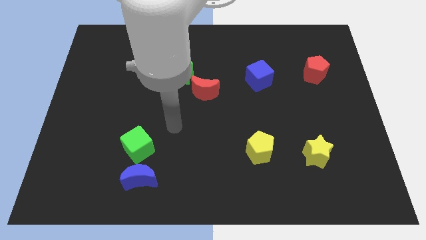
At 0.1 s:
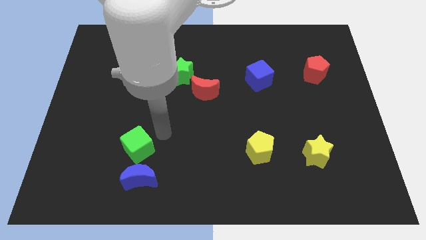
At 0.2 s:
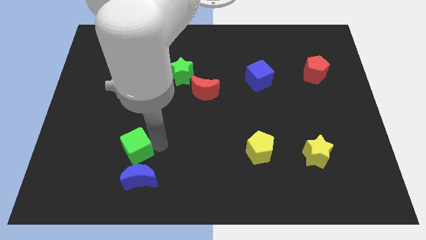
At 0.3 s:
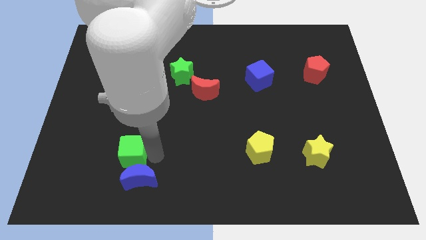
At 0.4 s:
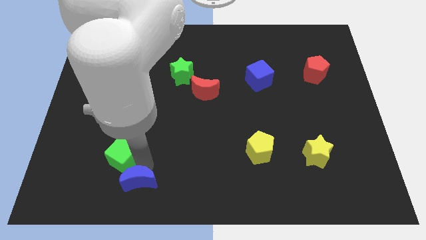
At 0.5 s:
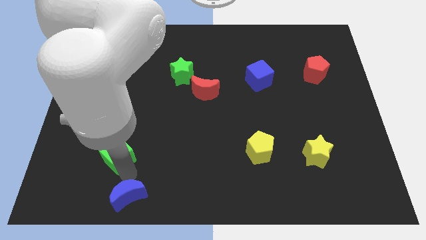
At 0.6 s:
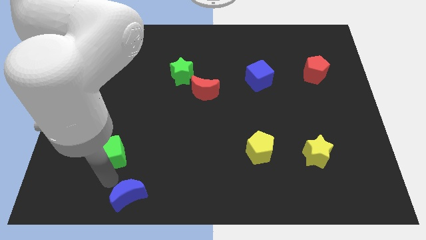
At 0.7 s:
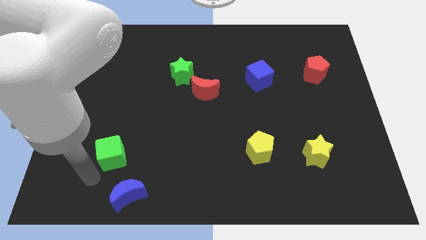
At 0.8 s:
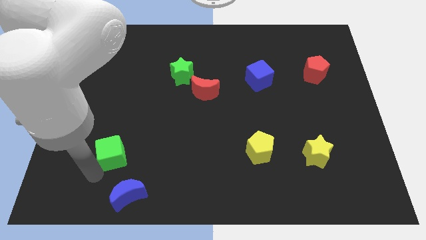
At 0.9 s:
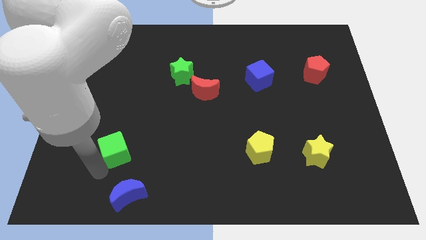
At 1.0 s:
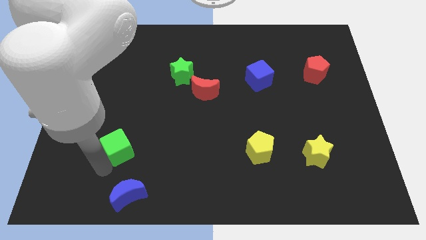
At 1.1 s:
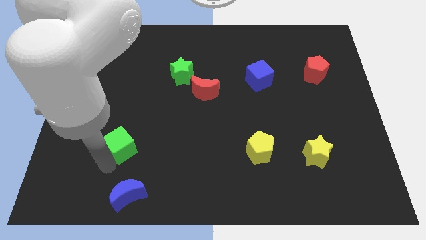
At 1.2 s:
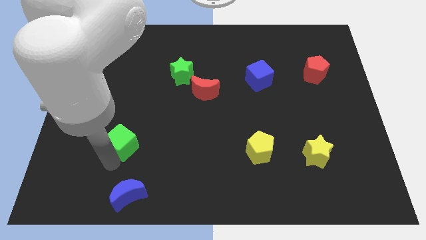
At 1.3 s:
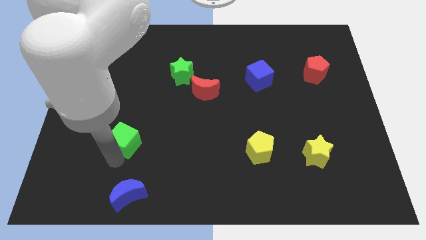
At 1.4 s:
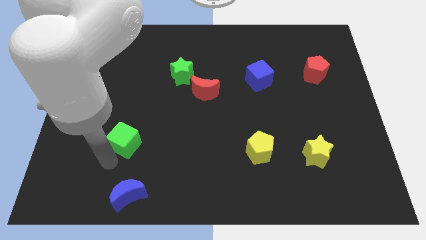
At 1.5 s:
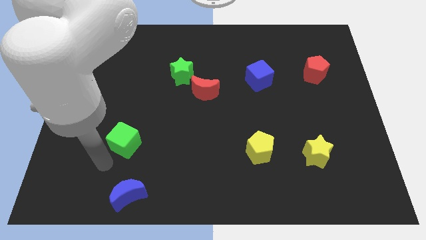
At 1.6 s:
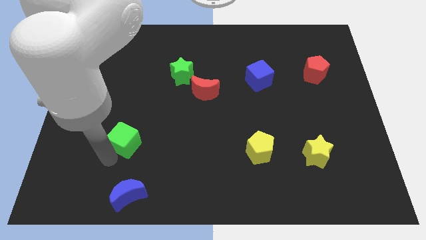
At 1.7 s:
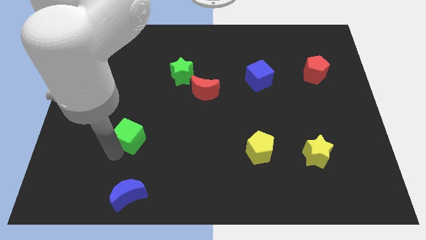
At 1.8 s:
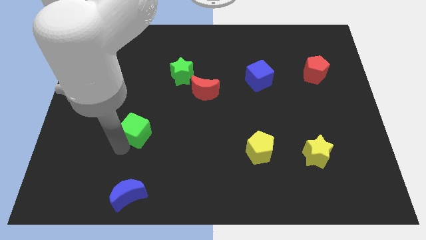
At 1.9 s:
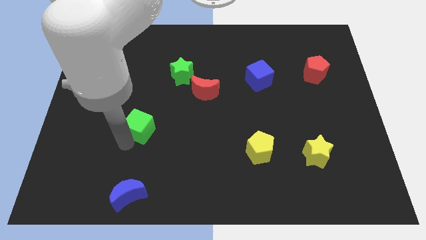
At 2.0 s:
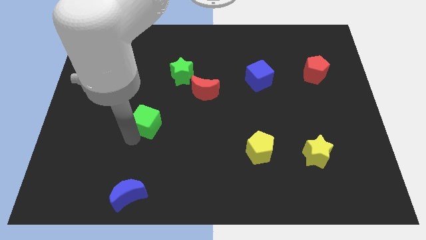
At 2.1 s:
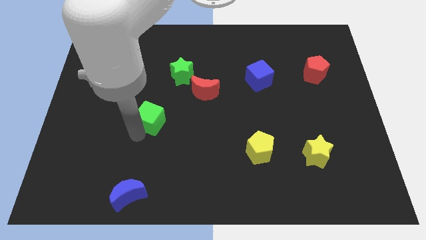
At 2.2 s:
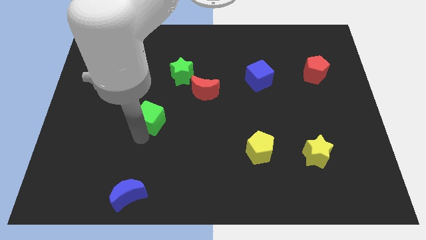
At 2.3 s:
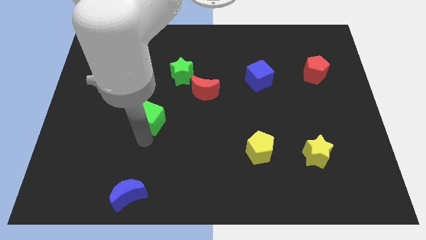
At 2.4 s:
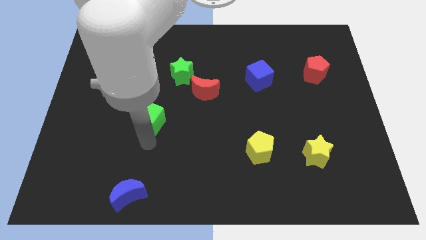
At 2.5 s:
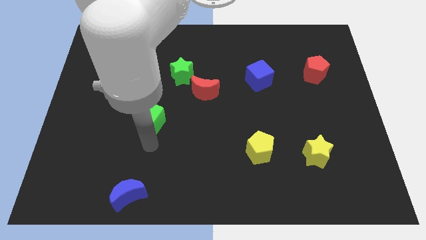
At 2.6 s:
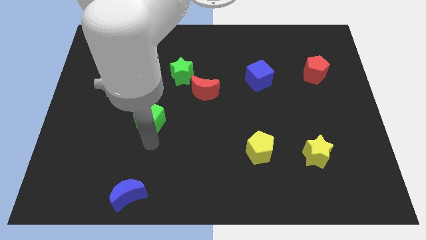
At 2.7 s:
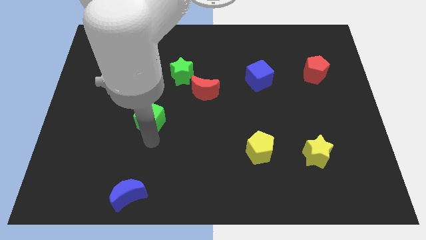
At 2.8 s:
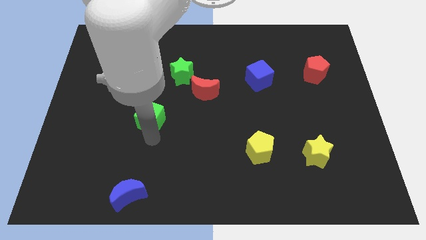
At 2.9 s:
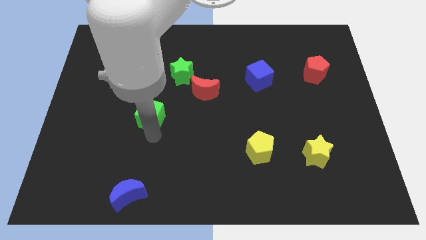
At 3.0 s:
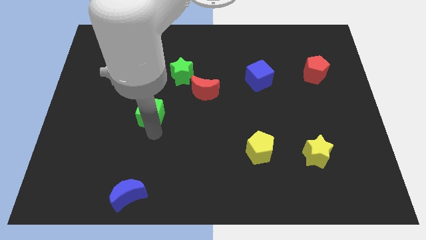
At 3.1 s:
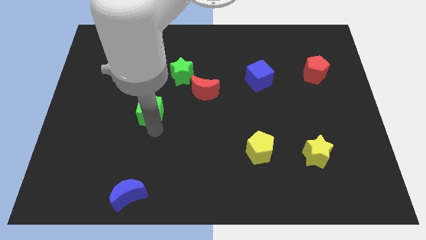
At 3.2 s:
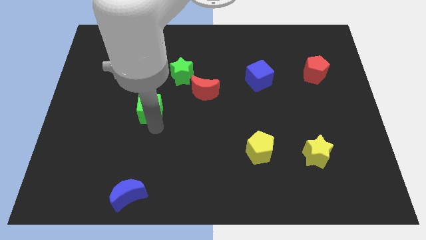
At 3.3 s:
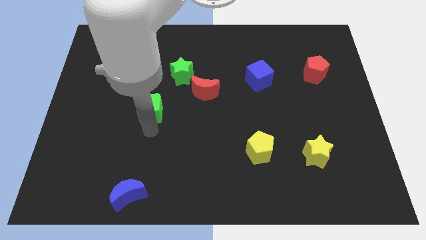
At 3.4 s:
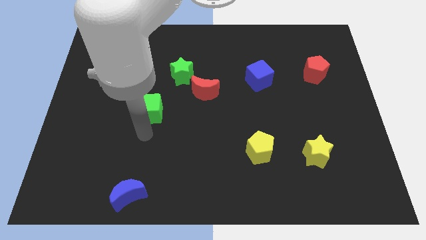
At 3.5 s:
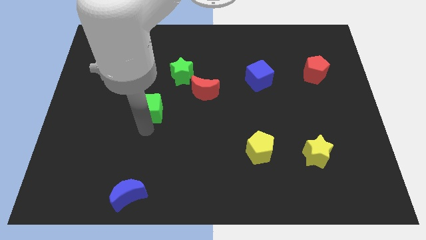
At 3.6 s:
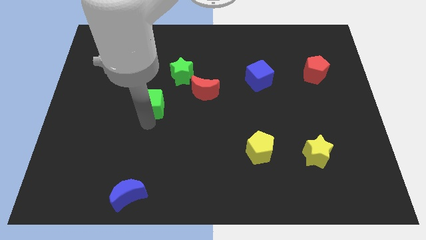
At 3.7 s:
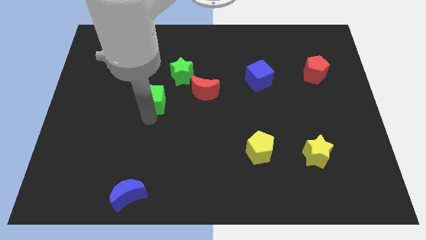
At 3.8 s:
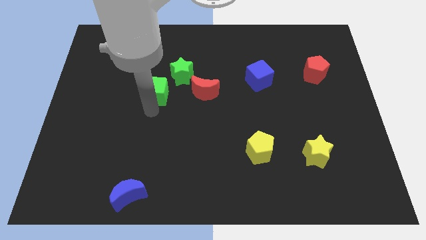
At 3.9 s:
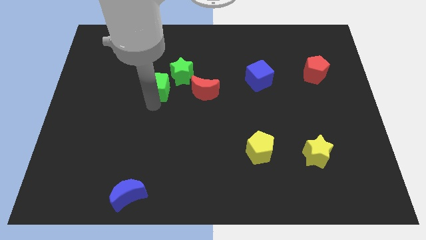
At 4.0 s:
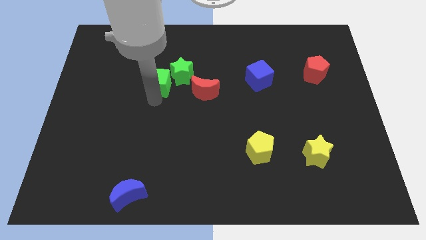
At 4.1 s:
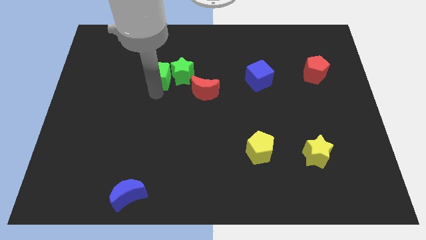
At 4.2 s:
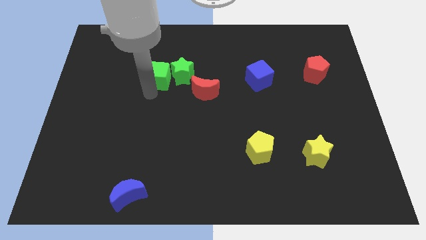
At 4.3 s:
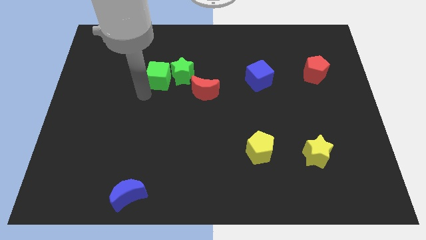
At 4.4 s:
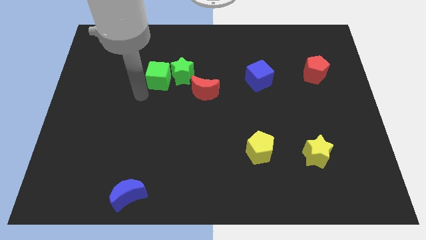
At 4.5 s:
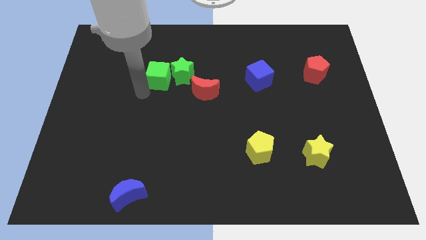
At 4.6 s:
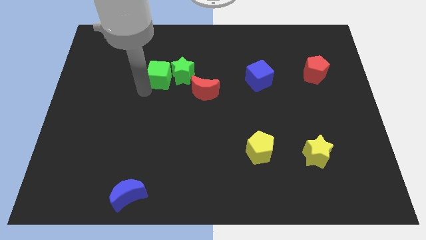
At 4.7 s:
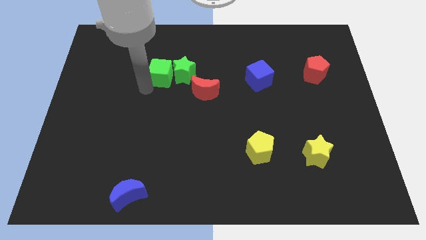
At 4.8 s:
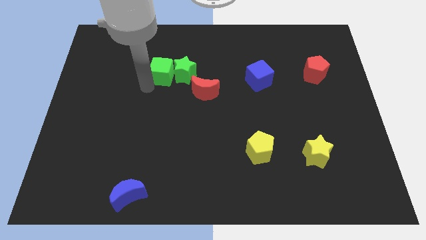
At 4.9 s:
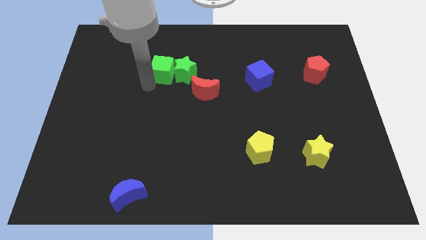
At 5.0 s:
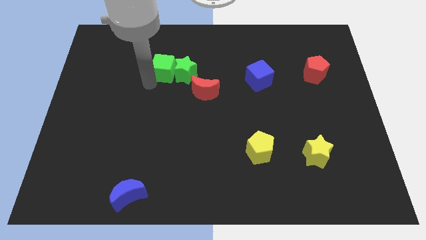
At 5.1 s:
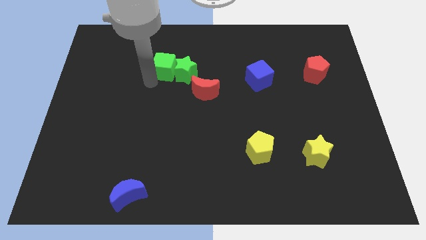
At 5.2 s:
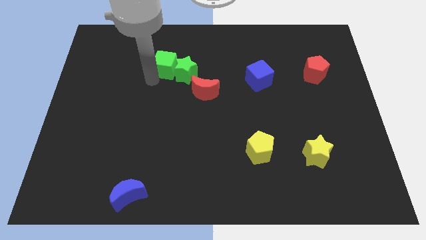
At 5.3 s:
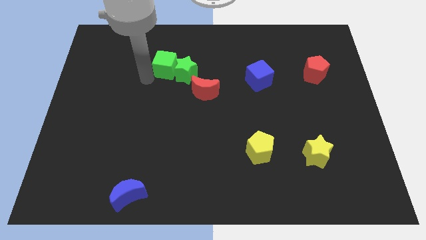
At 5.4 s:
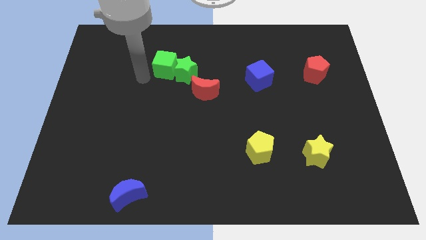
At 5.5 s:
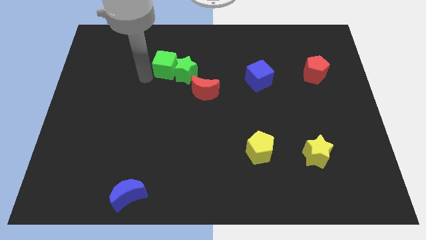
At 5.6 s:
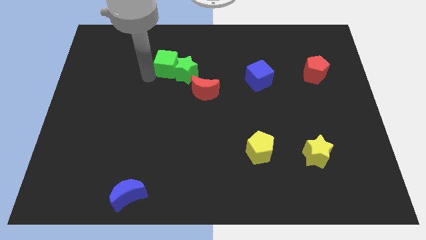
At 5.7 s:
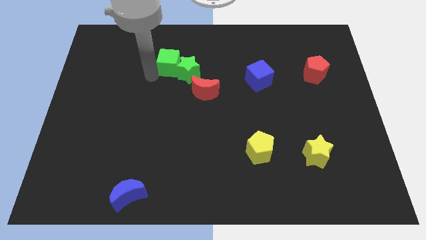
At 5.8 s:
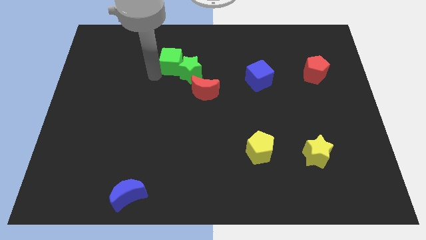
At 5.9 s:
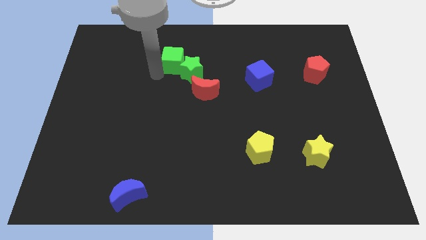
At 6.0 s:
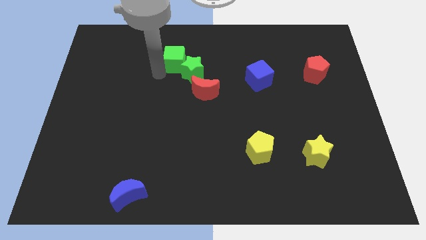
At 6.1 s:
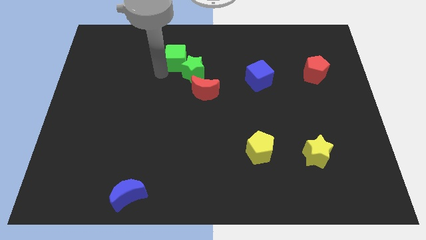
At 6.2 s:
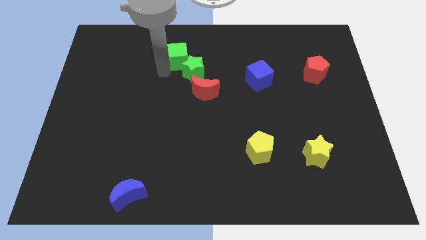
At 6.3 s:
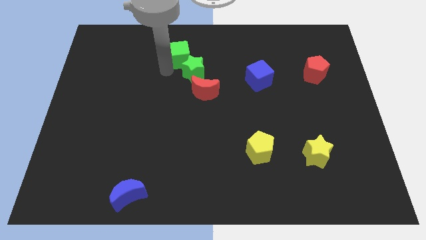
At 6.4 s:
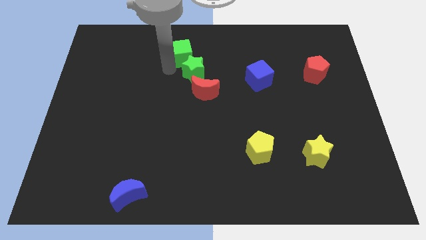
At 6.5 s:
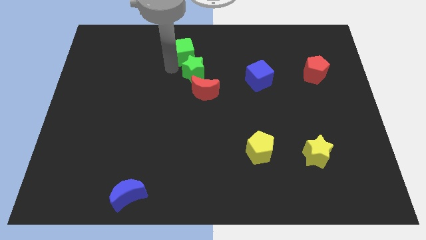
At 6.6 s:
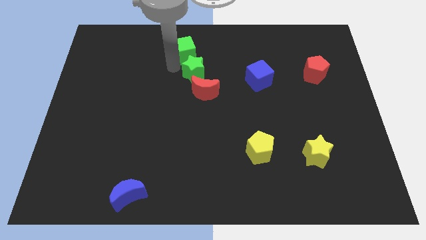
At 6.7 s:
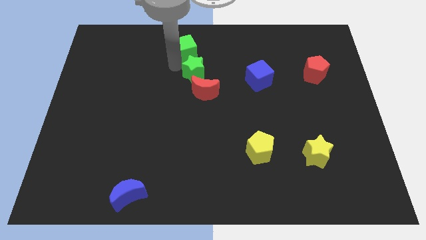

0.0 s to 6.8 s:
slide the green cube to the towards your base

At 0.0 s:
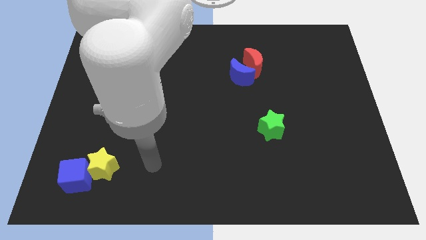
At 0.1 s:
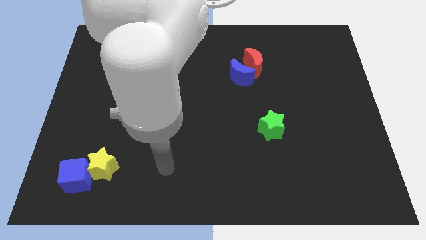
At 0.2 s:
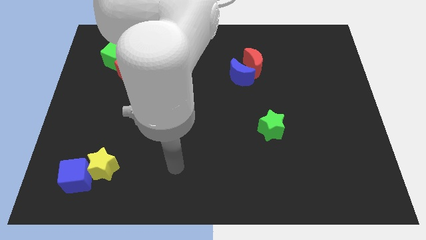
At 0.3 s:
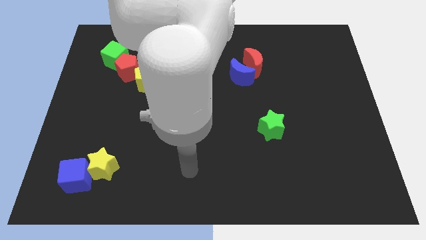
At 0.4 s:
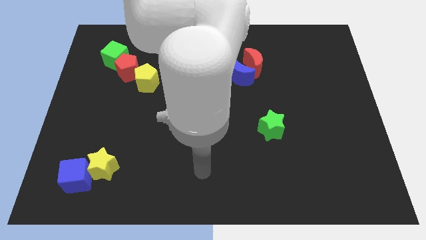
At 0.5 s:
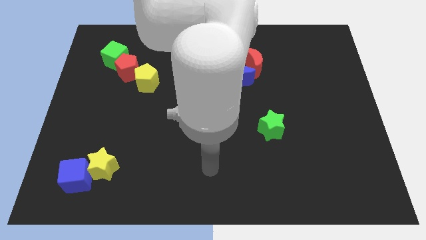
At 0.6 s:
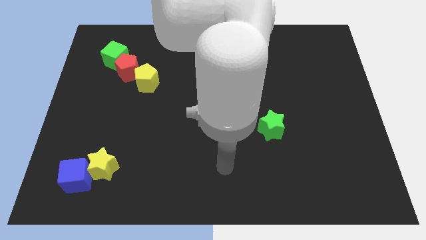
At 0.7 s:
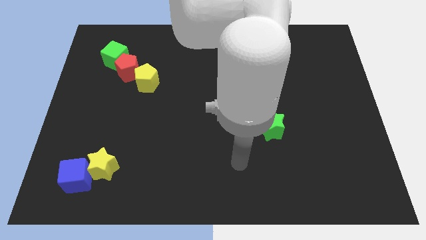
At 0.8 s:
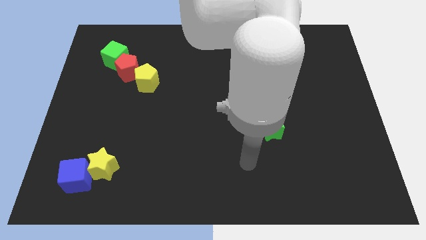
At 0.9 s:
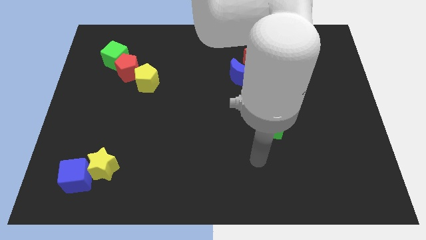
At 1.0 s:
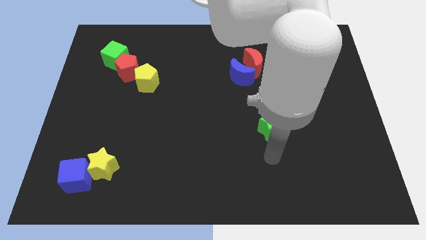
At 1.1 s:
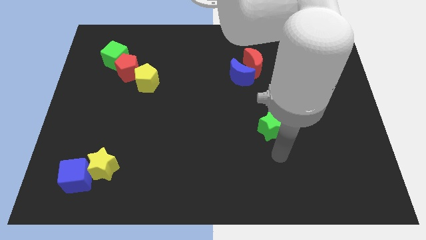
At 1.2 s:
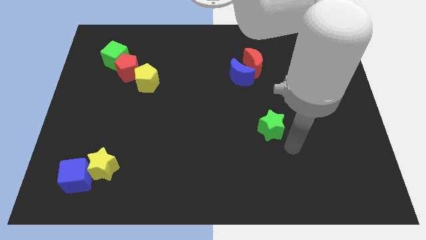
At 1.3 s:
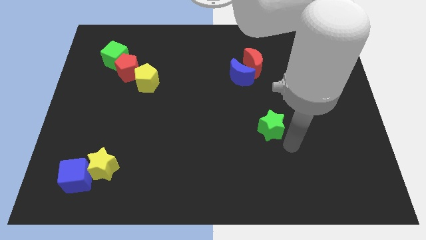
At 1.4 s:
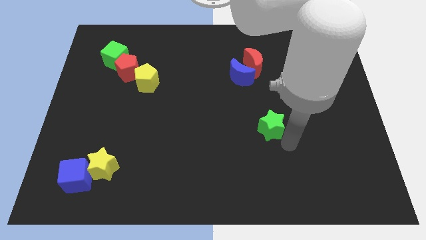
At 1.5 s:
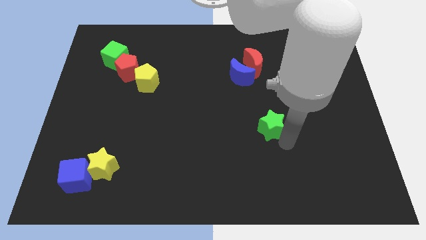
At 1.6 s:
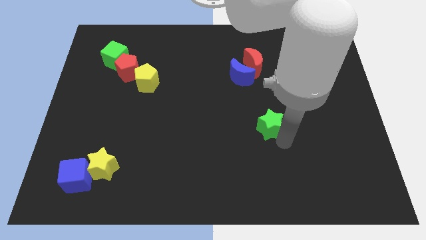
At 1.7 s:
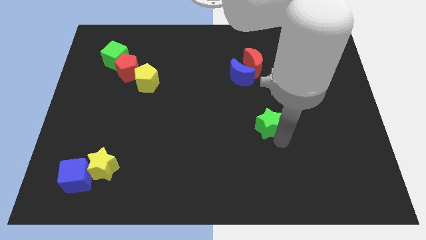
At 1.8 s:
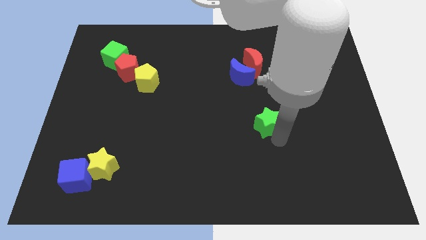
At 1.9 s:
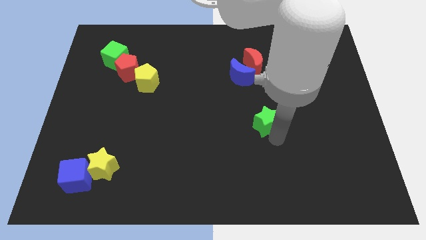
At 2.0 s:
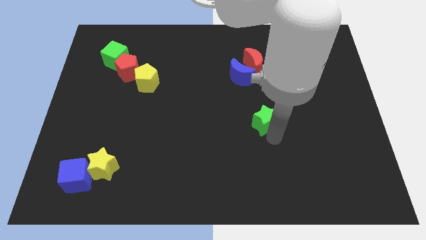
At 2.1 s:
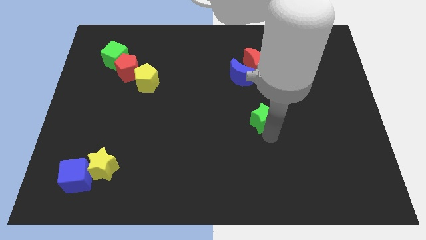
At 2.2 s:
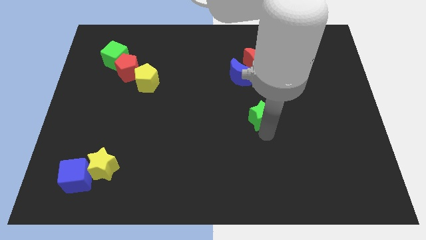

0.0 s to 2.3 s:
push the green star to the middle of the board
